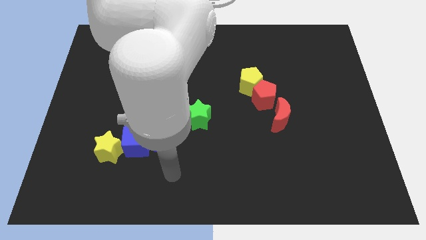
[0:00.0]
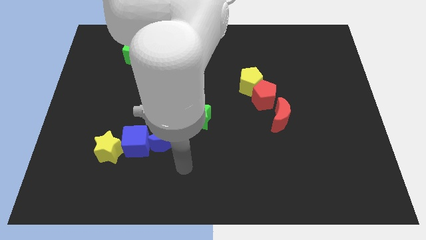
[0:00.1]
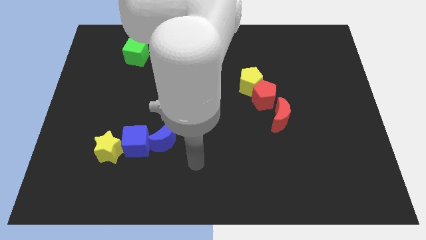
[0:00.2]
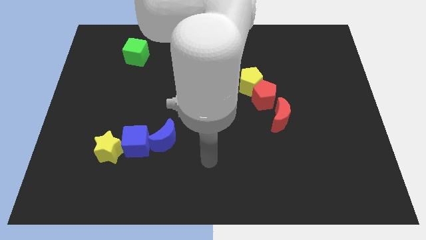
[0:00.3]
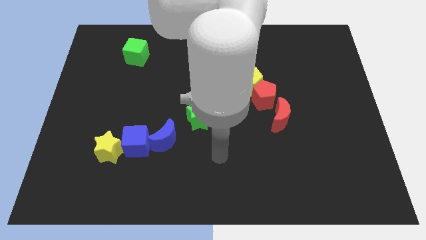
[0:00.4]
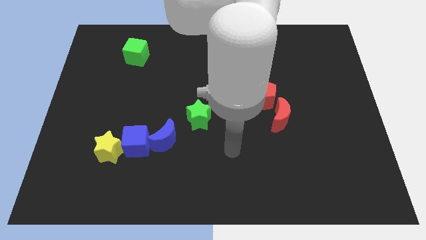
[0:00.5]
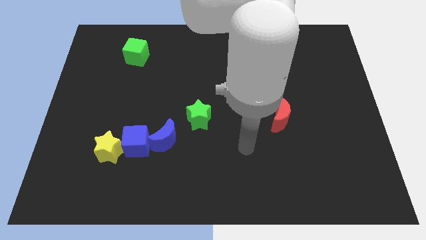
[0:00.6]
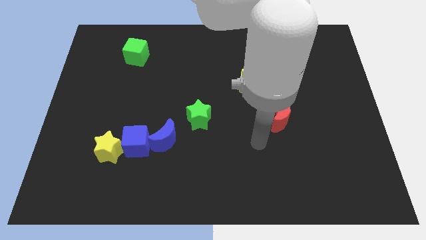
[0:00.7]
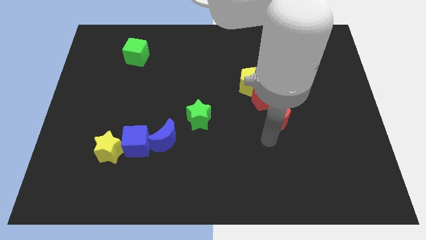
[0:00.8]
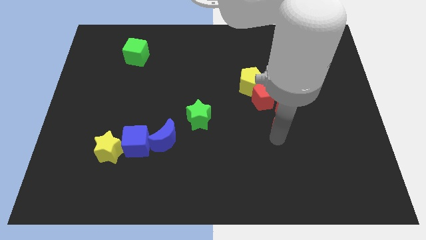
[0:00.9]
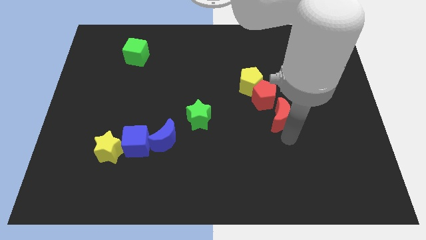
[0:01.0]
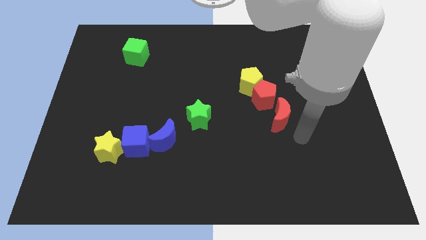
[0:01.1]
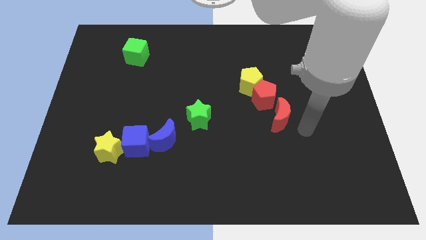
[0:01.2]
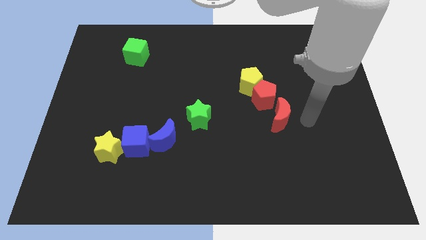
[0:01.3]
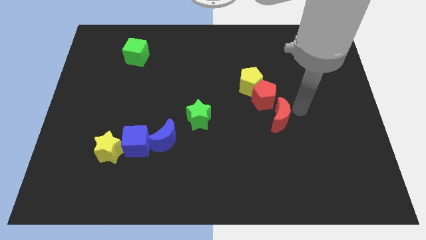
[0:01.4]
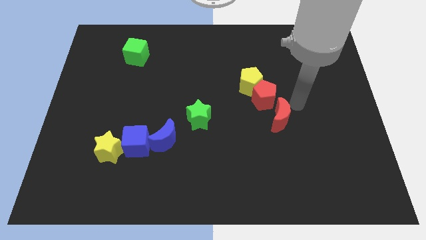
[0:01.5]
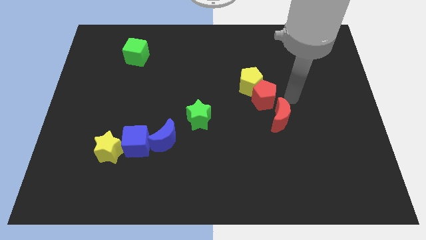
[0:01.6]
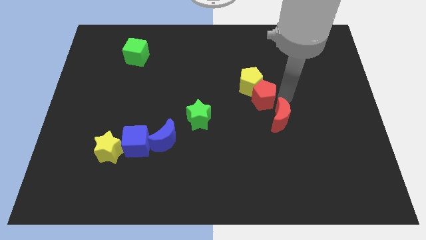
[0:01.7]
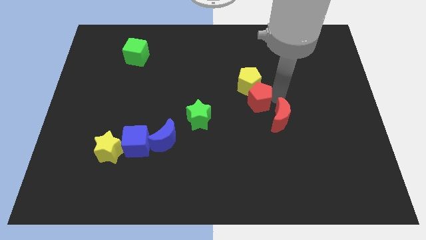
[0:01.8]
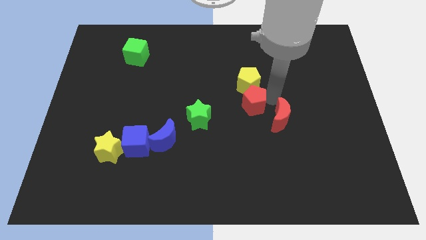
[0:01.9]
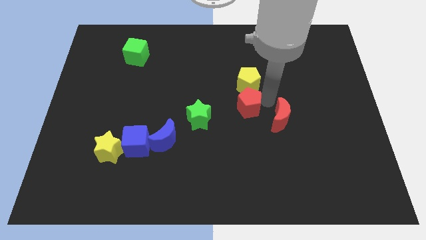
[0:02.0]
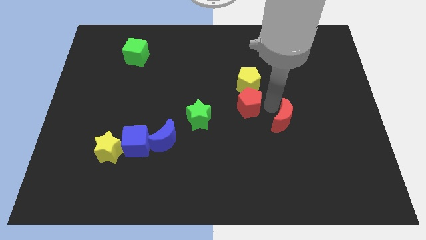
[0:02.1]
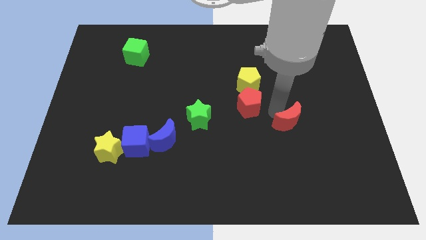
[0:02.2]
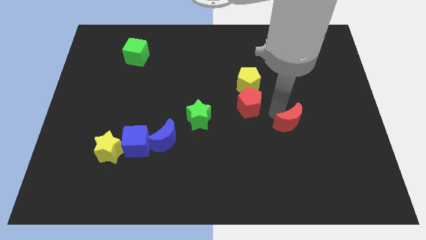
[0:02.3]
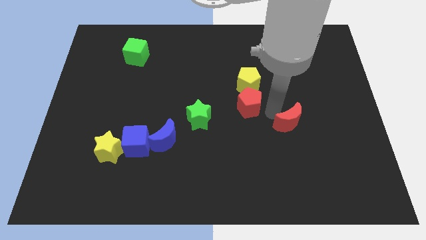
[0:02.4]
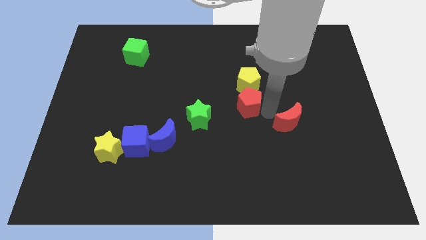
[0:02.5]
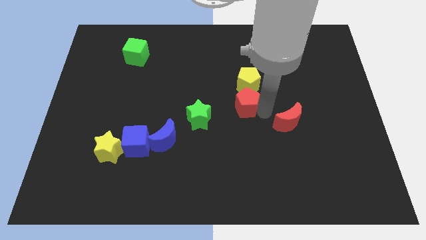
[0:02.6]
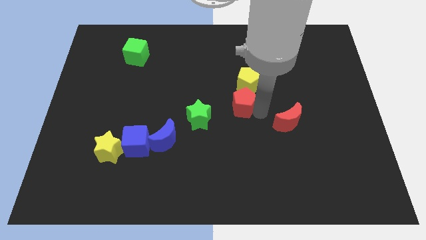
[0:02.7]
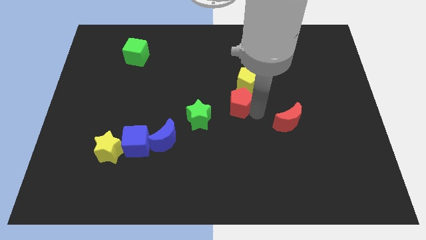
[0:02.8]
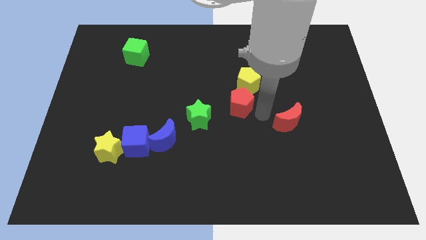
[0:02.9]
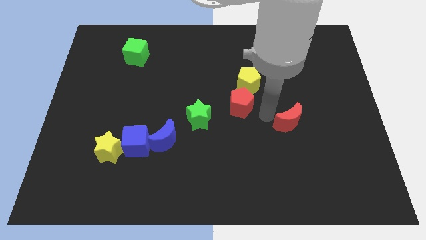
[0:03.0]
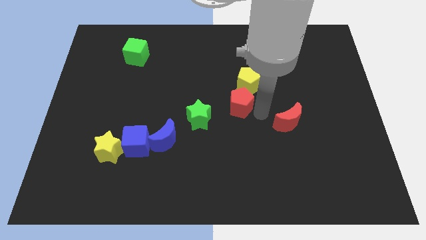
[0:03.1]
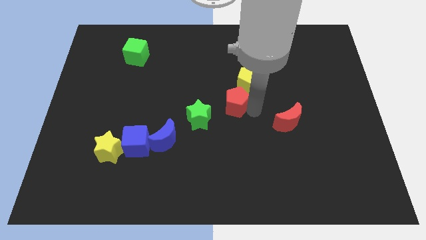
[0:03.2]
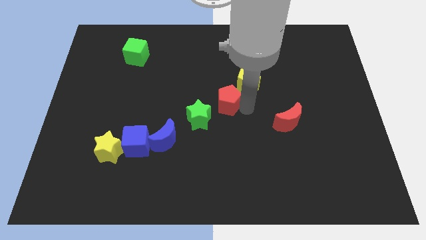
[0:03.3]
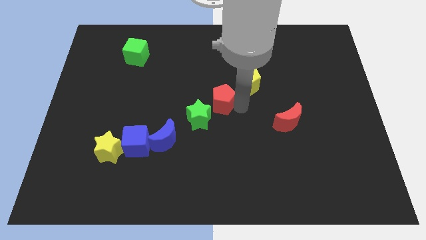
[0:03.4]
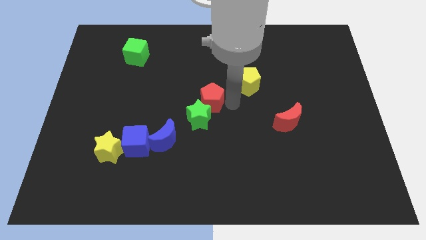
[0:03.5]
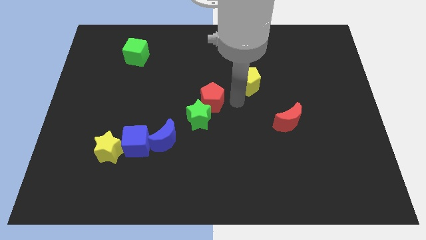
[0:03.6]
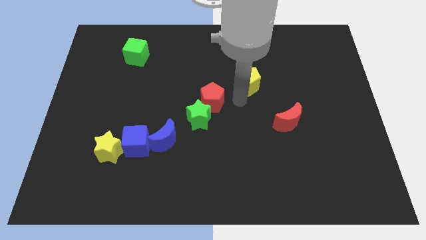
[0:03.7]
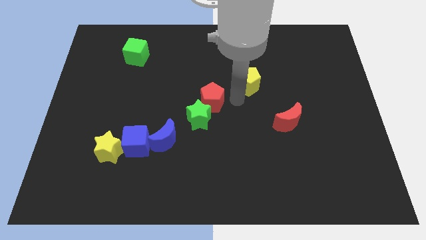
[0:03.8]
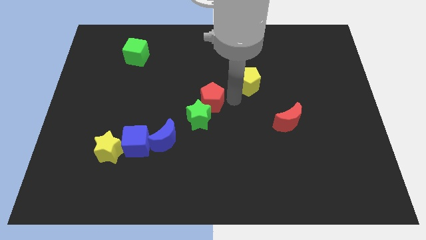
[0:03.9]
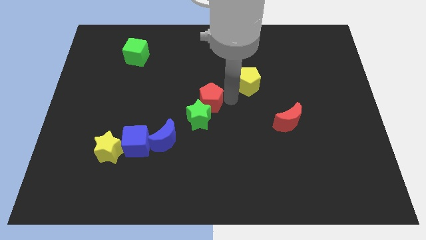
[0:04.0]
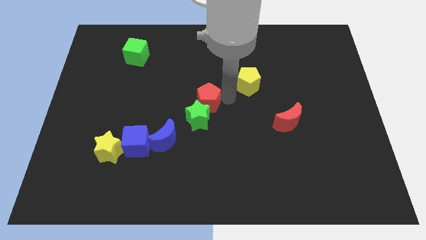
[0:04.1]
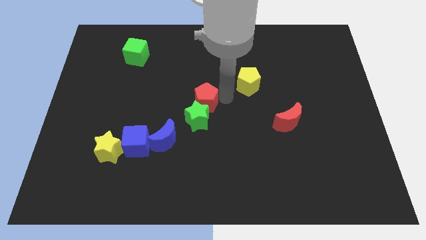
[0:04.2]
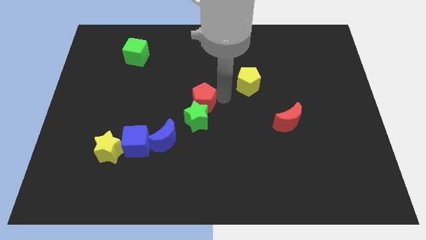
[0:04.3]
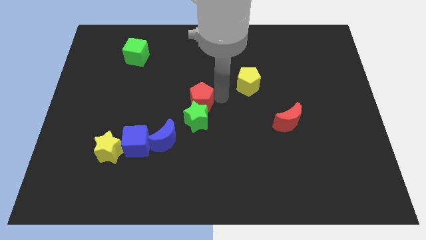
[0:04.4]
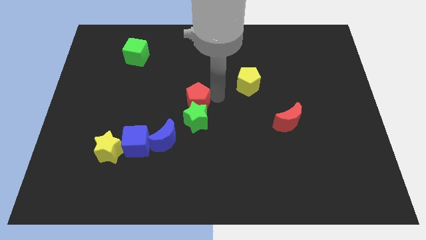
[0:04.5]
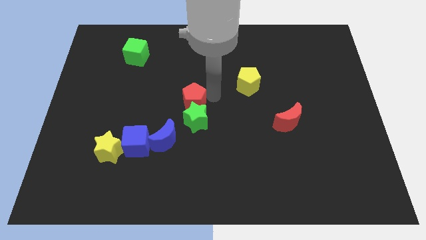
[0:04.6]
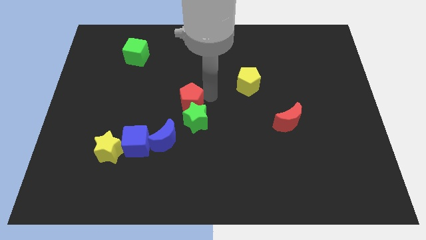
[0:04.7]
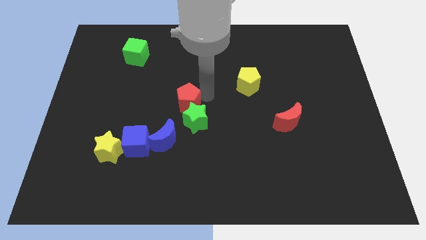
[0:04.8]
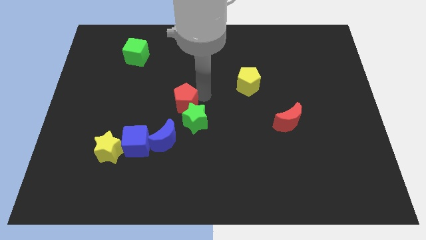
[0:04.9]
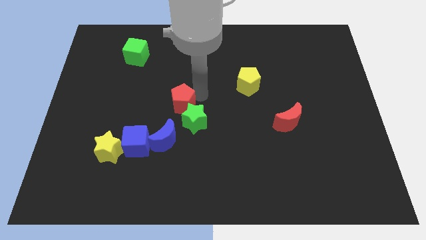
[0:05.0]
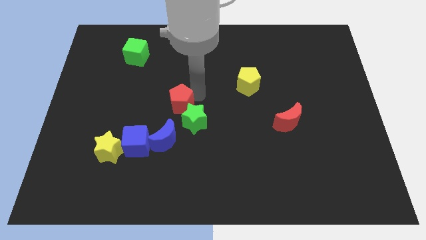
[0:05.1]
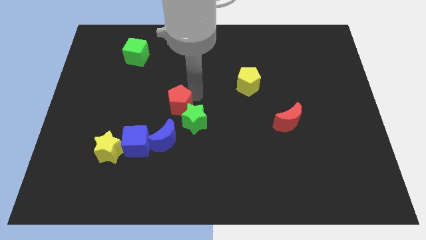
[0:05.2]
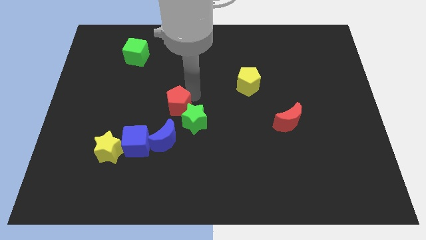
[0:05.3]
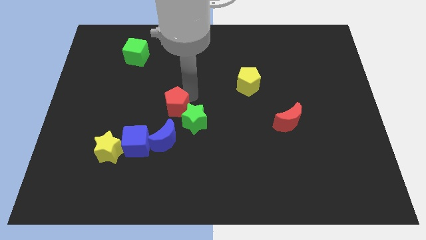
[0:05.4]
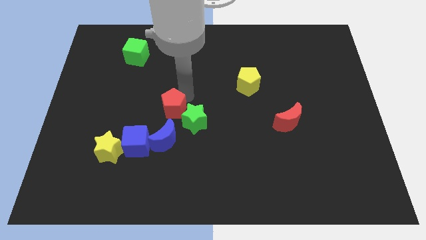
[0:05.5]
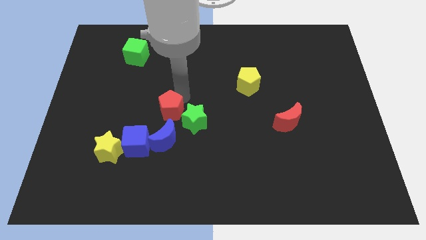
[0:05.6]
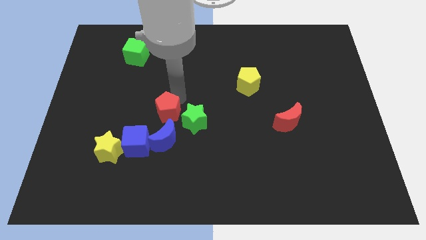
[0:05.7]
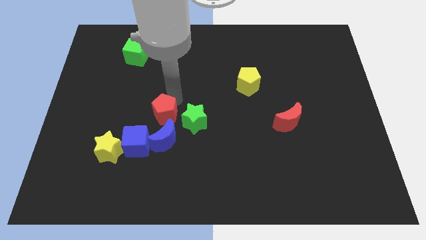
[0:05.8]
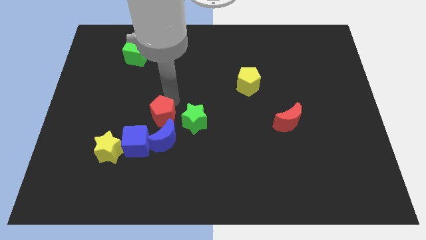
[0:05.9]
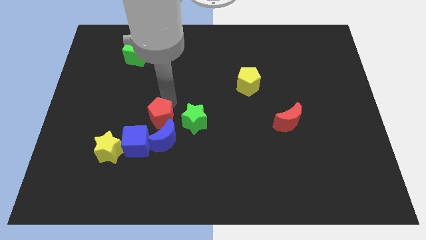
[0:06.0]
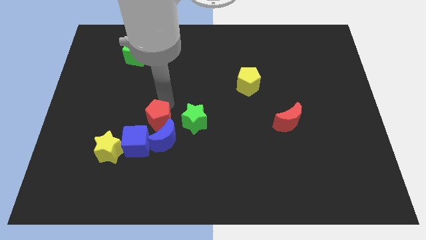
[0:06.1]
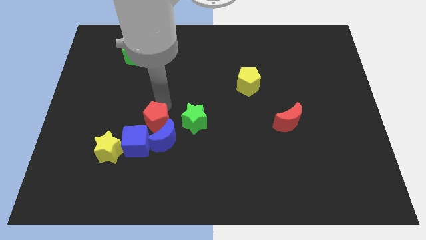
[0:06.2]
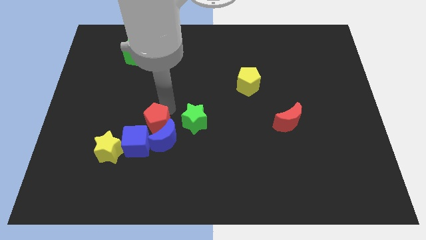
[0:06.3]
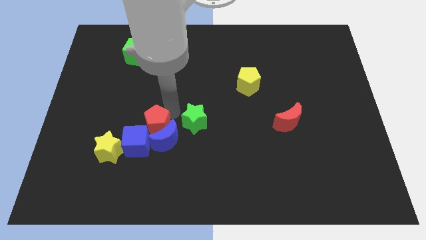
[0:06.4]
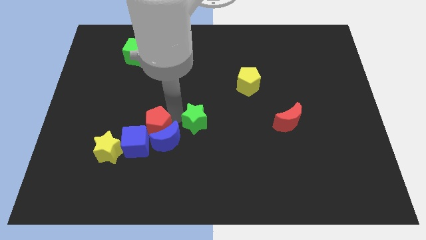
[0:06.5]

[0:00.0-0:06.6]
put the red pentagon to the left of the blue moon
